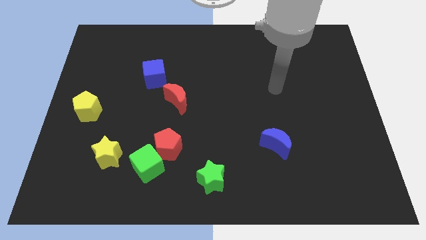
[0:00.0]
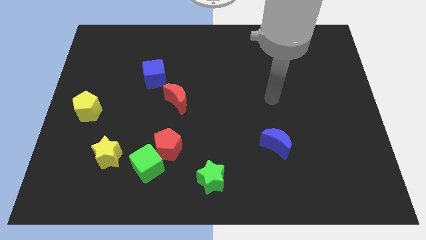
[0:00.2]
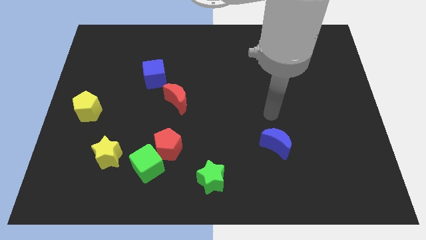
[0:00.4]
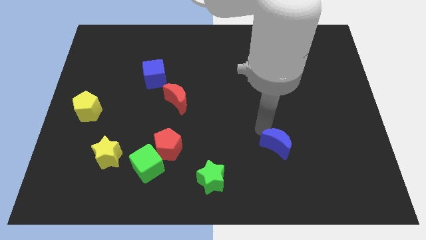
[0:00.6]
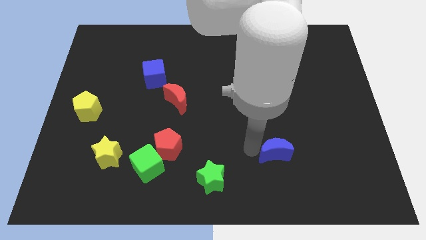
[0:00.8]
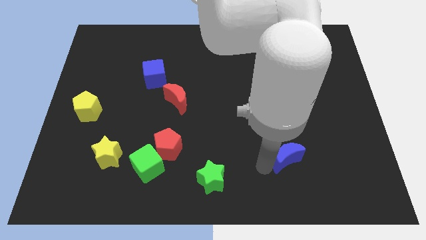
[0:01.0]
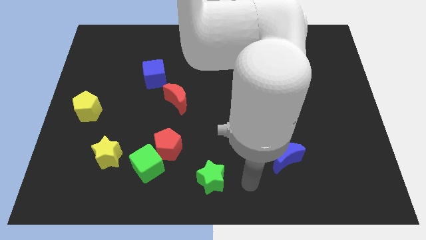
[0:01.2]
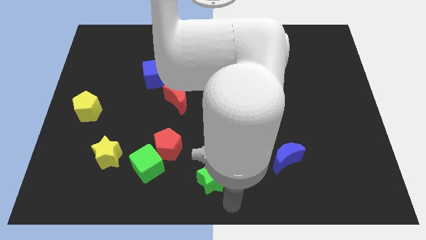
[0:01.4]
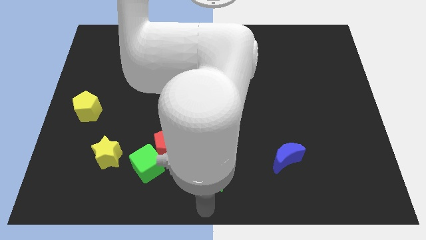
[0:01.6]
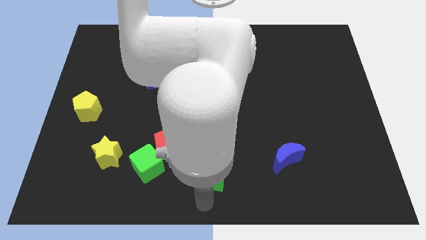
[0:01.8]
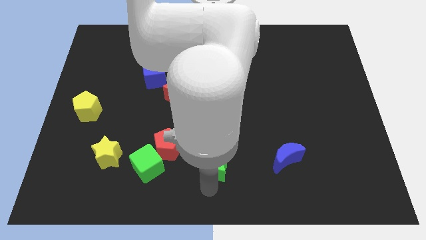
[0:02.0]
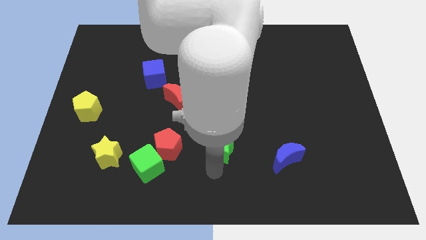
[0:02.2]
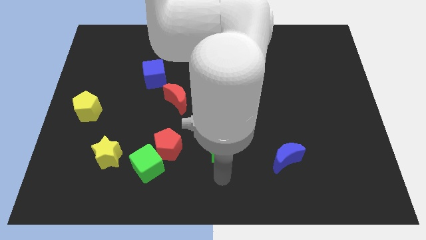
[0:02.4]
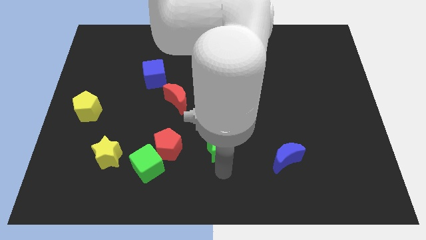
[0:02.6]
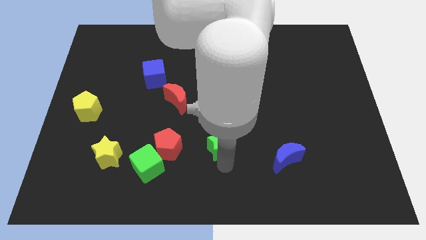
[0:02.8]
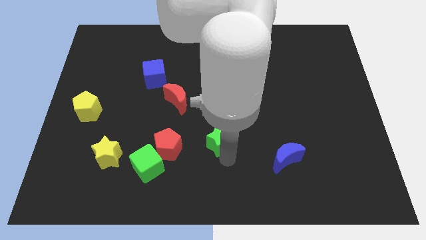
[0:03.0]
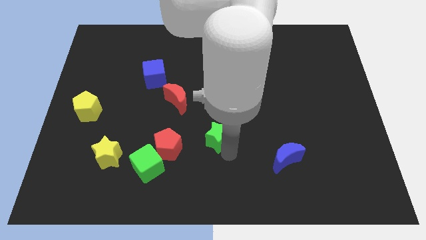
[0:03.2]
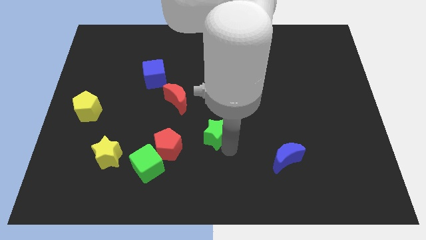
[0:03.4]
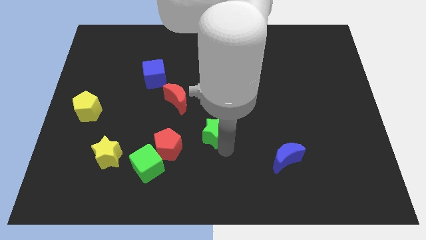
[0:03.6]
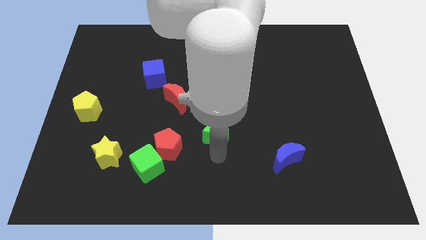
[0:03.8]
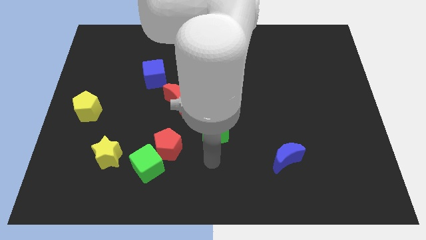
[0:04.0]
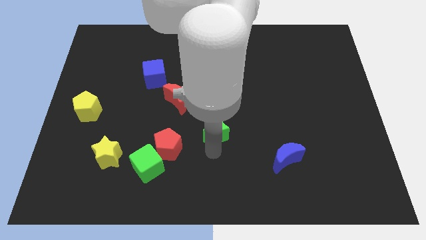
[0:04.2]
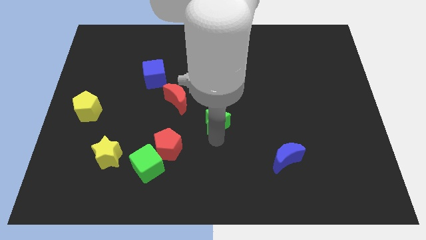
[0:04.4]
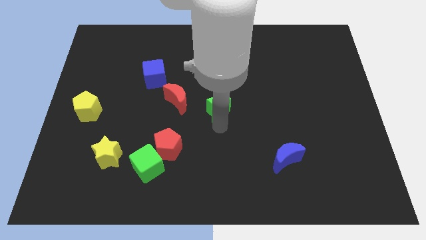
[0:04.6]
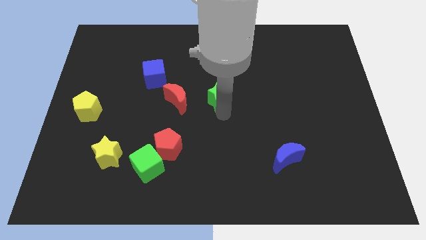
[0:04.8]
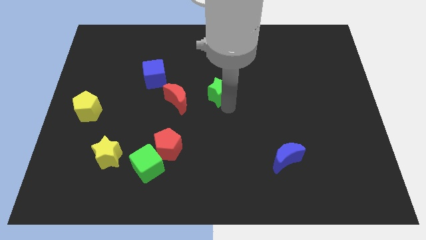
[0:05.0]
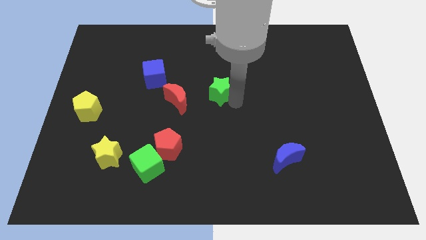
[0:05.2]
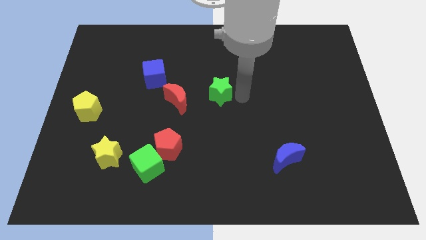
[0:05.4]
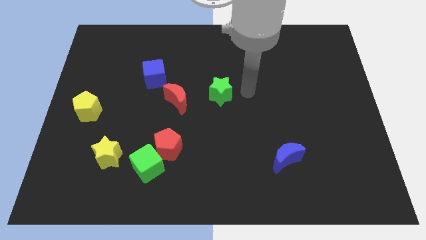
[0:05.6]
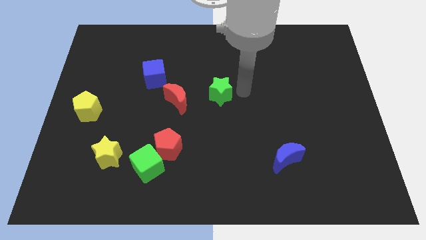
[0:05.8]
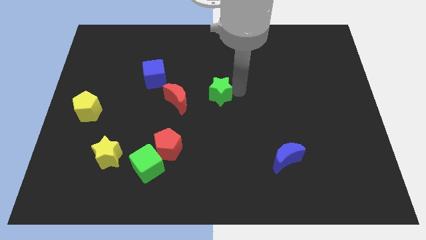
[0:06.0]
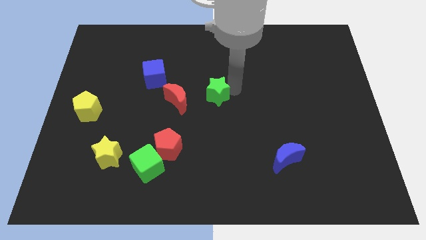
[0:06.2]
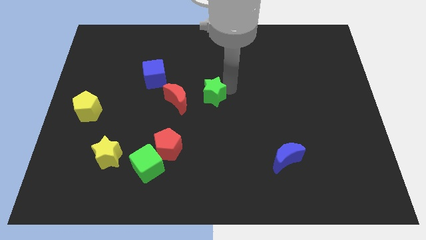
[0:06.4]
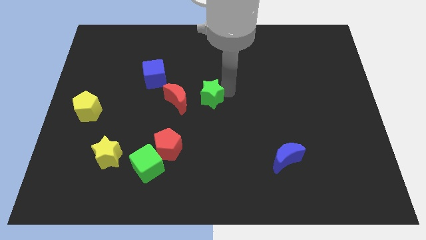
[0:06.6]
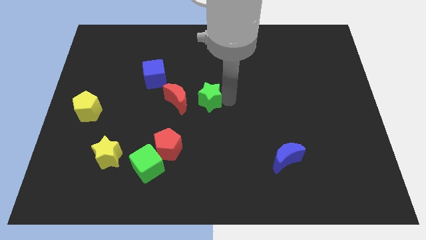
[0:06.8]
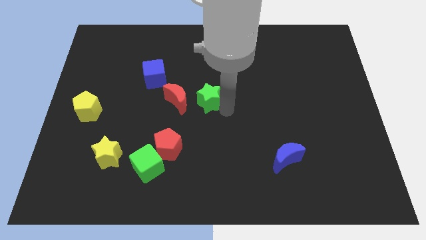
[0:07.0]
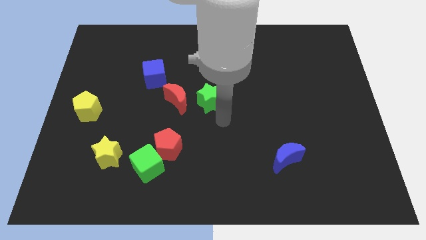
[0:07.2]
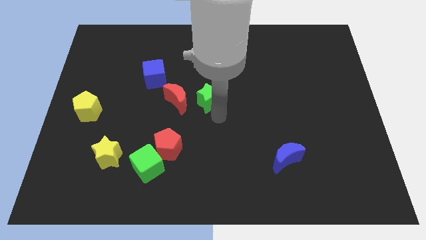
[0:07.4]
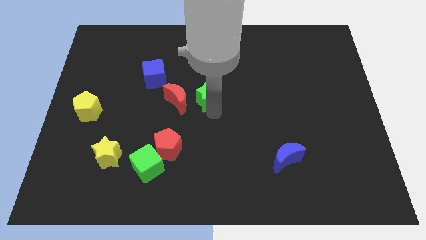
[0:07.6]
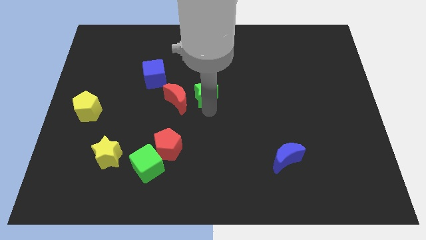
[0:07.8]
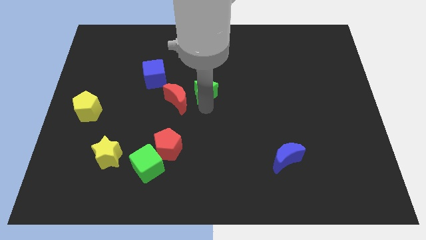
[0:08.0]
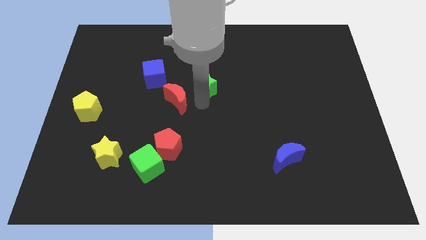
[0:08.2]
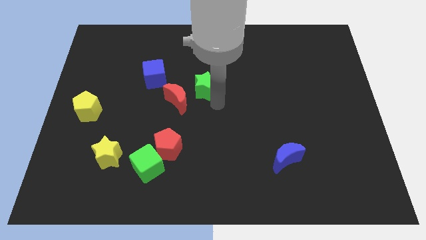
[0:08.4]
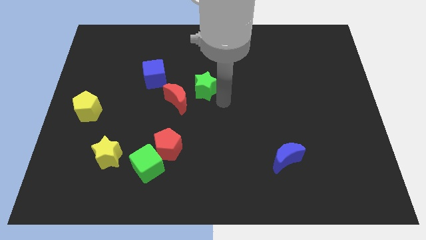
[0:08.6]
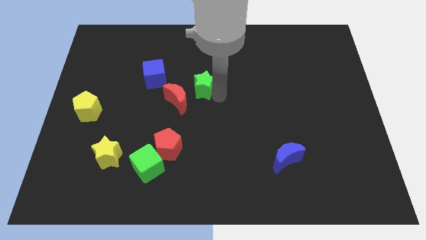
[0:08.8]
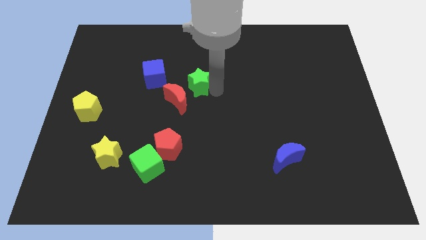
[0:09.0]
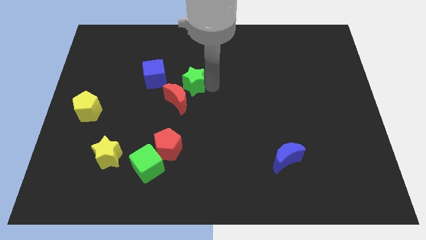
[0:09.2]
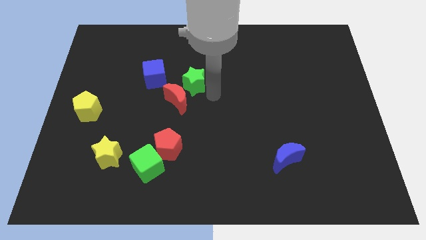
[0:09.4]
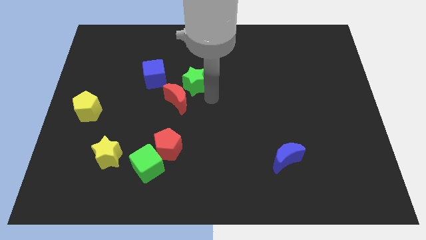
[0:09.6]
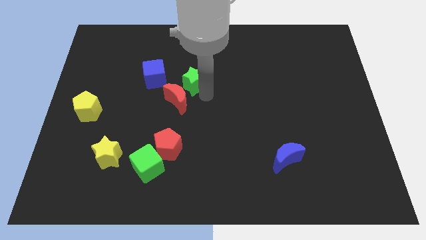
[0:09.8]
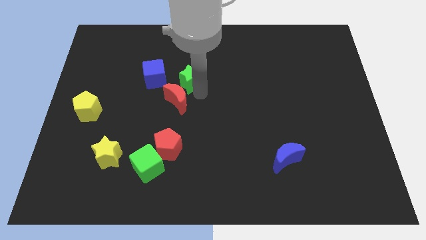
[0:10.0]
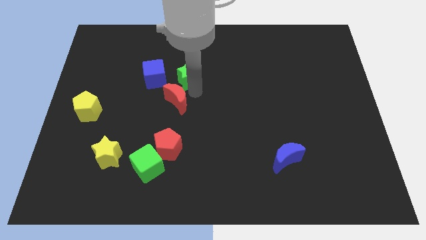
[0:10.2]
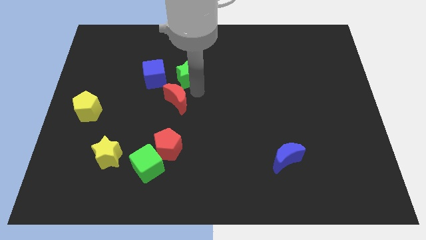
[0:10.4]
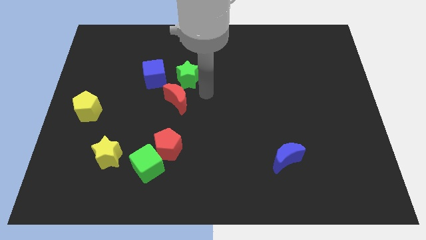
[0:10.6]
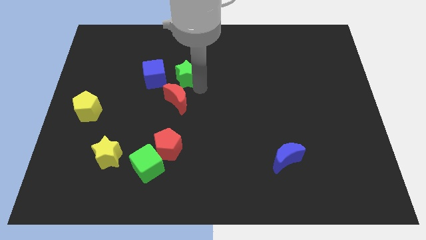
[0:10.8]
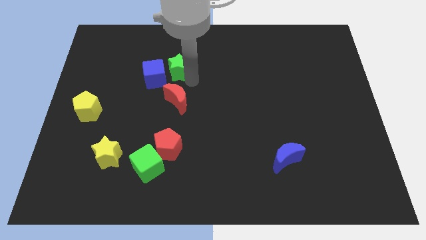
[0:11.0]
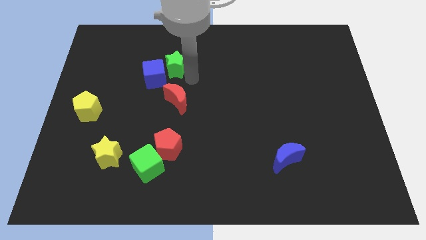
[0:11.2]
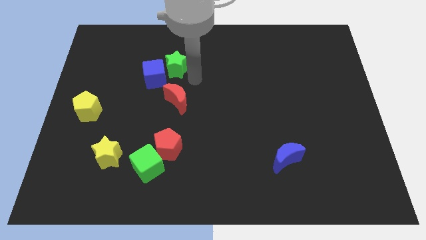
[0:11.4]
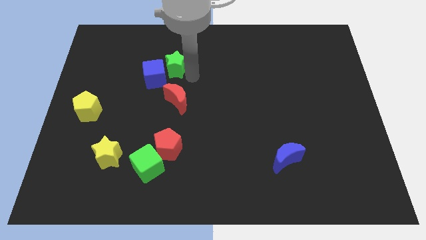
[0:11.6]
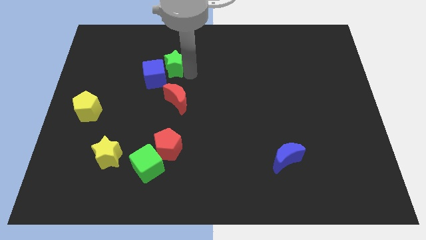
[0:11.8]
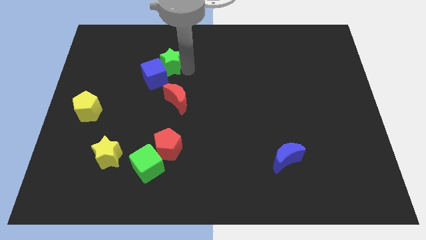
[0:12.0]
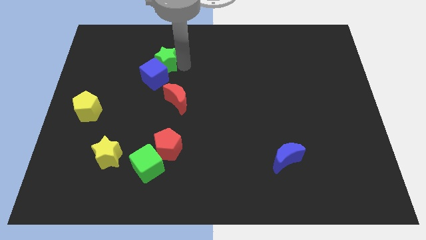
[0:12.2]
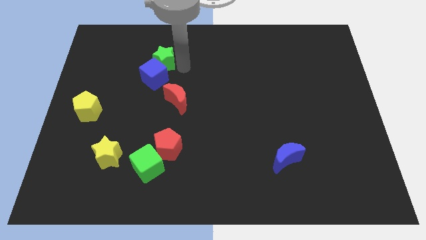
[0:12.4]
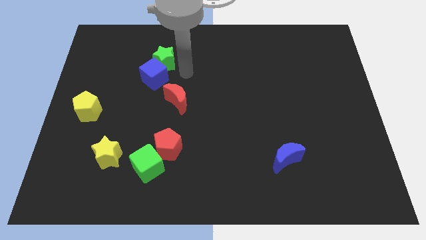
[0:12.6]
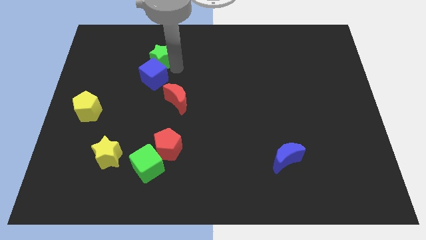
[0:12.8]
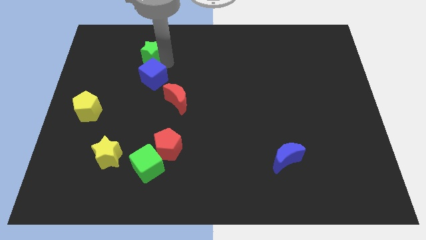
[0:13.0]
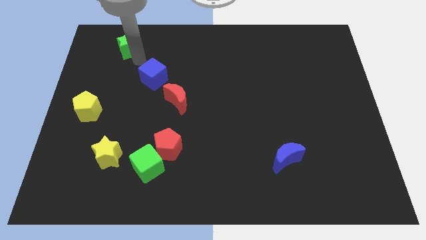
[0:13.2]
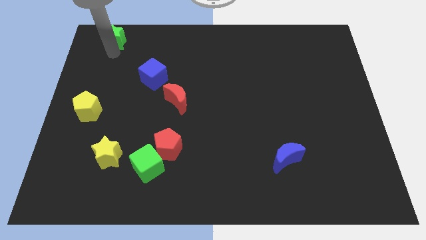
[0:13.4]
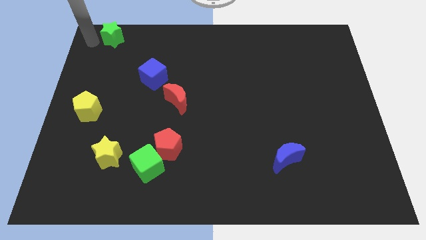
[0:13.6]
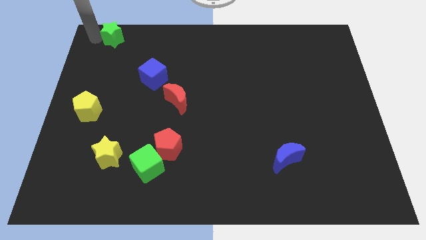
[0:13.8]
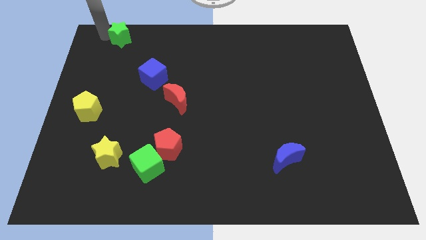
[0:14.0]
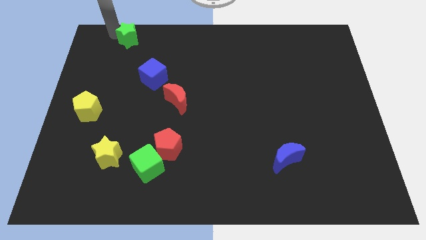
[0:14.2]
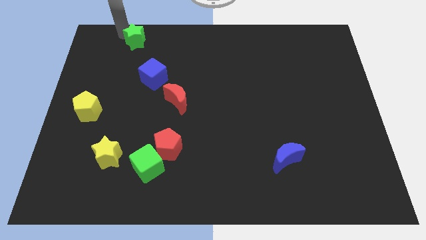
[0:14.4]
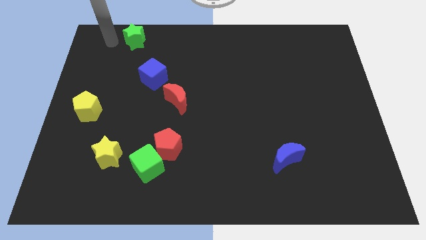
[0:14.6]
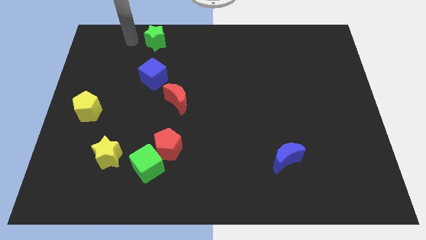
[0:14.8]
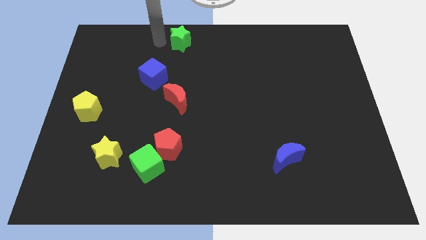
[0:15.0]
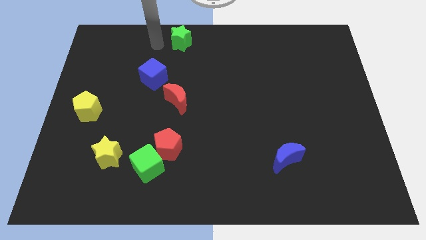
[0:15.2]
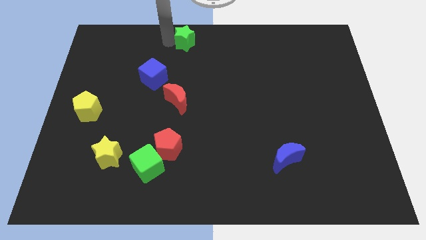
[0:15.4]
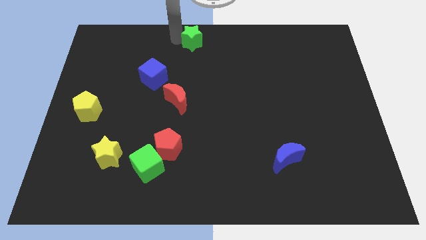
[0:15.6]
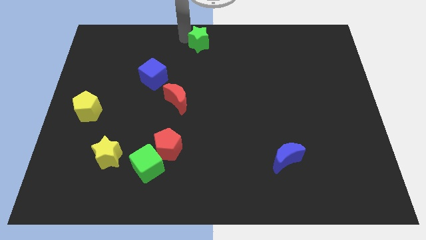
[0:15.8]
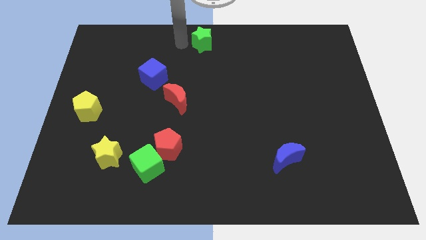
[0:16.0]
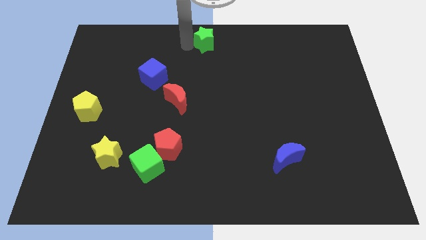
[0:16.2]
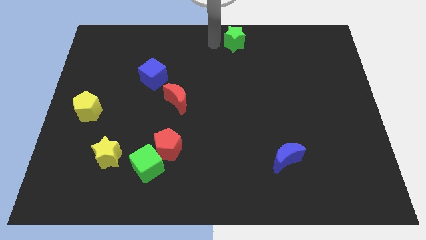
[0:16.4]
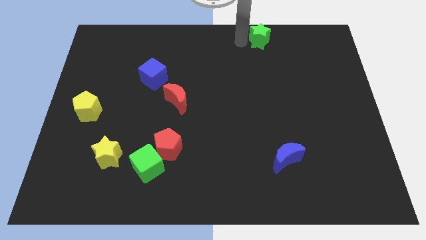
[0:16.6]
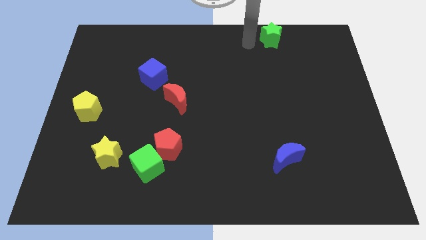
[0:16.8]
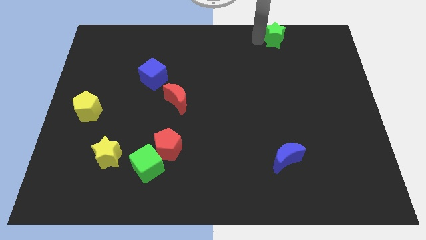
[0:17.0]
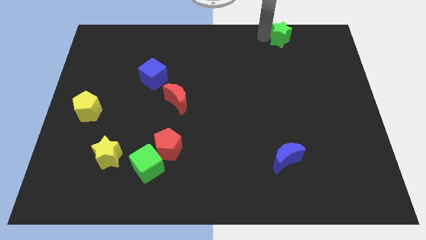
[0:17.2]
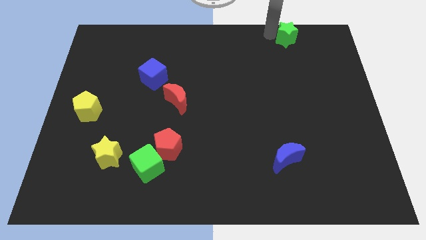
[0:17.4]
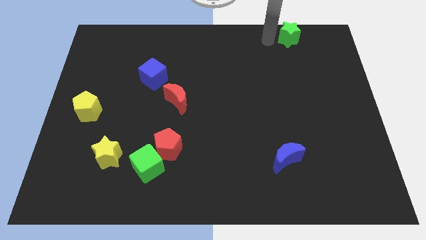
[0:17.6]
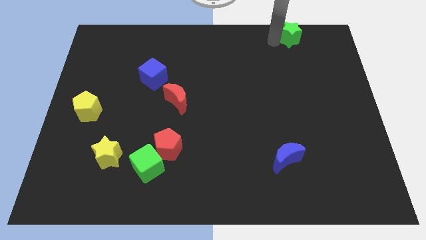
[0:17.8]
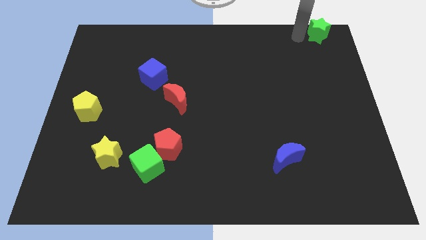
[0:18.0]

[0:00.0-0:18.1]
slide the green star to the top right of the board
